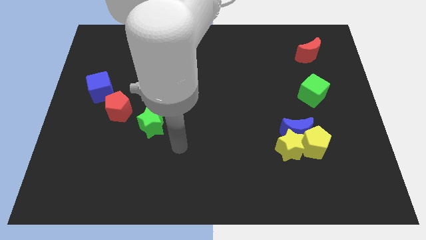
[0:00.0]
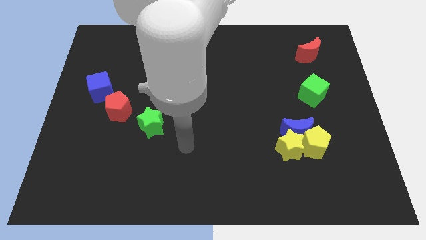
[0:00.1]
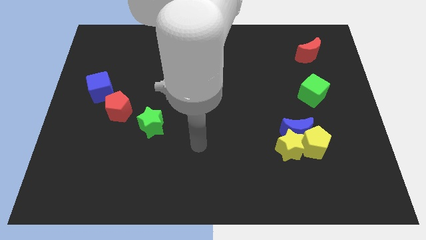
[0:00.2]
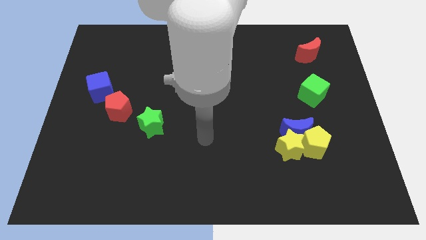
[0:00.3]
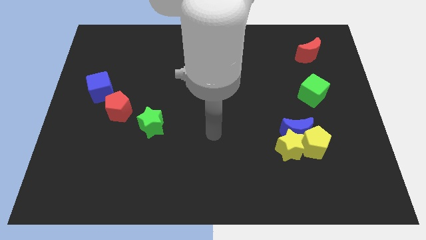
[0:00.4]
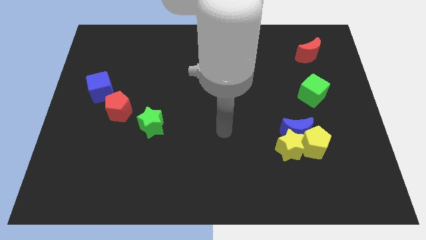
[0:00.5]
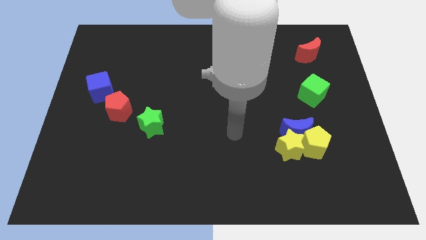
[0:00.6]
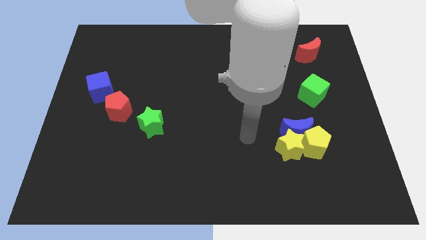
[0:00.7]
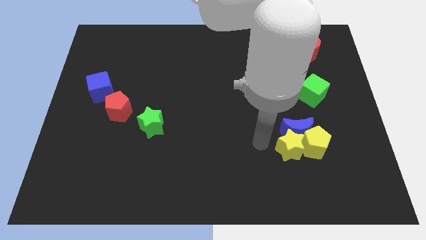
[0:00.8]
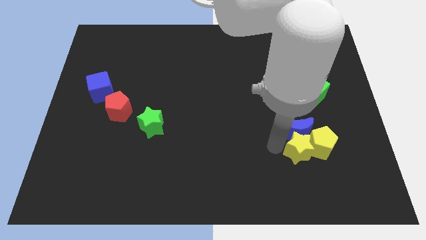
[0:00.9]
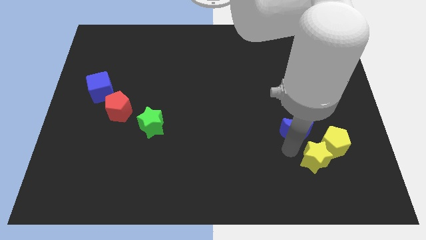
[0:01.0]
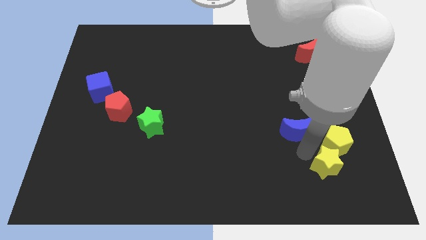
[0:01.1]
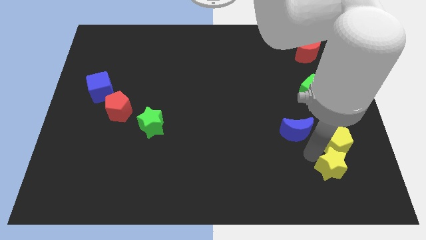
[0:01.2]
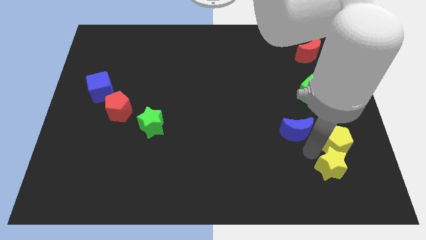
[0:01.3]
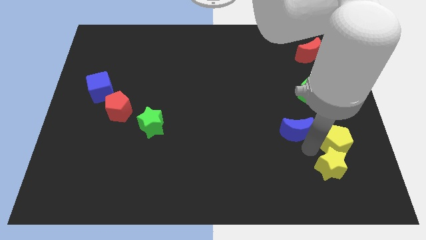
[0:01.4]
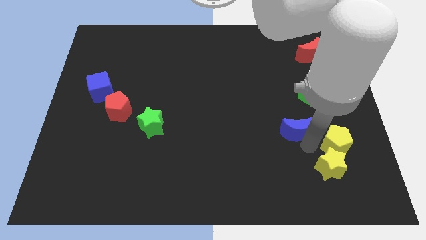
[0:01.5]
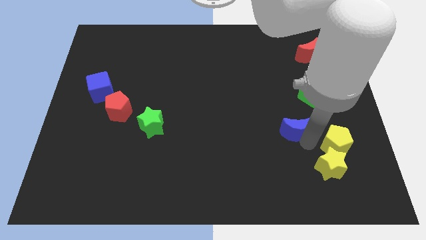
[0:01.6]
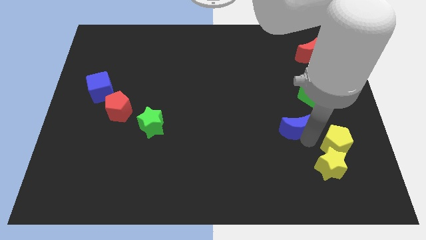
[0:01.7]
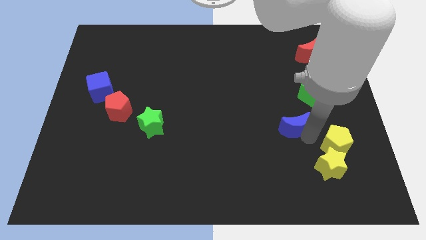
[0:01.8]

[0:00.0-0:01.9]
move the blue moon away from the yellow pentagon and yellow star

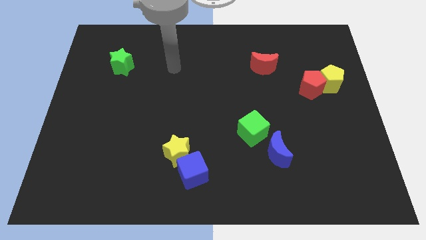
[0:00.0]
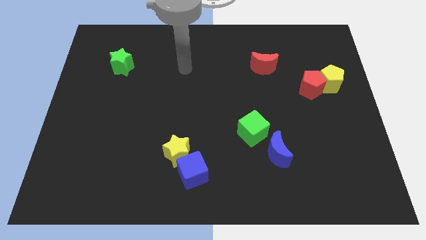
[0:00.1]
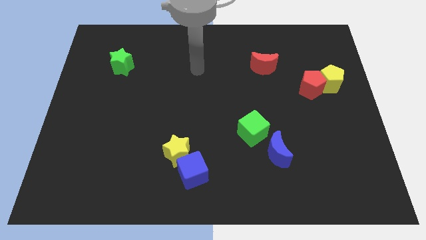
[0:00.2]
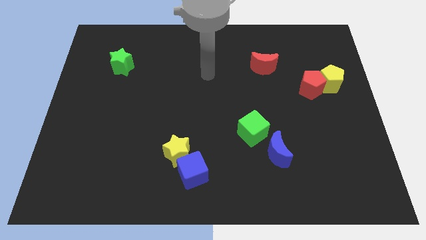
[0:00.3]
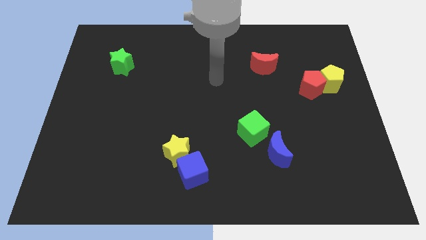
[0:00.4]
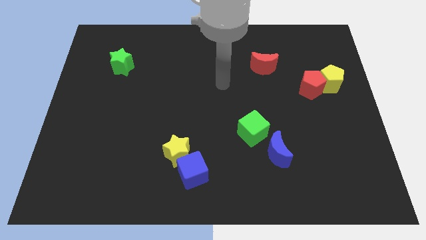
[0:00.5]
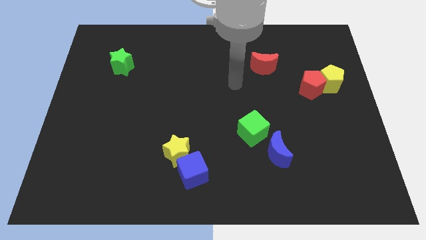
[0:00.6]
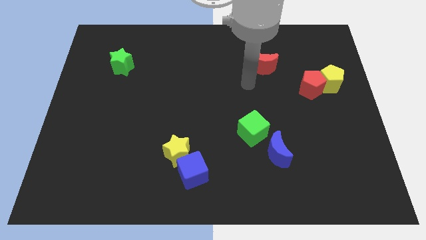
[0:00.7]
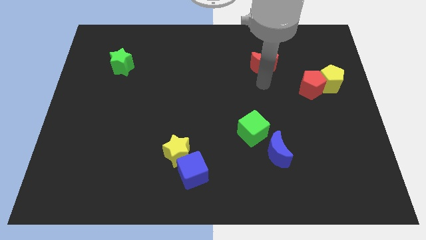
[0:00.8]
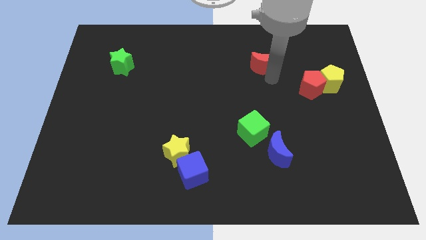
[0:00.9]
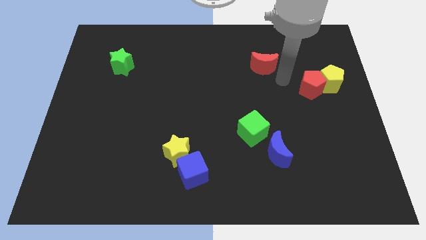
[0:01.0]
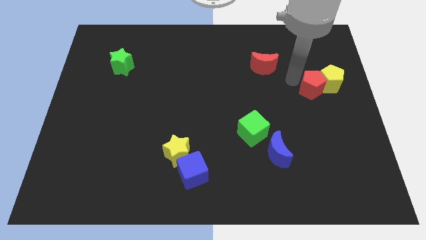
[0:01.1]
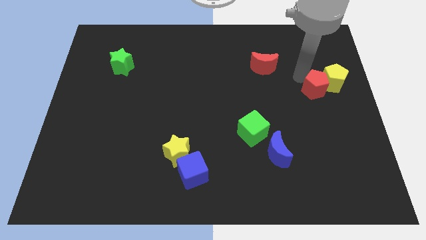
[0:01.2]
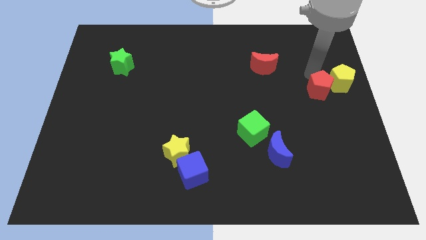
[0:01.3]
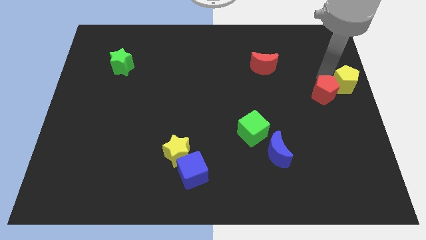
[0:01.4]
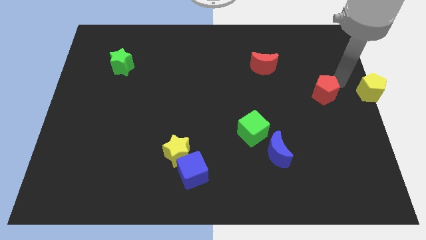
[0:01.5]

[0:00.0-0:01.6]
move the red pentagon away from the yellow pentagon

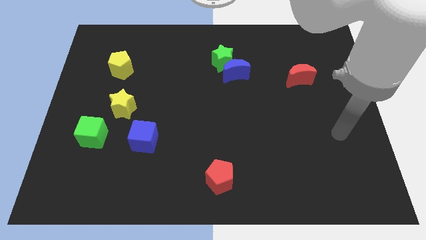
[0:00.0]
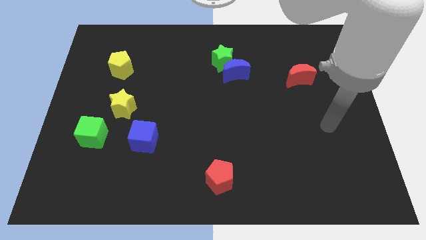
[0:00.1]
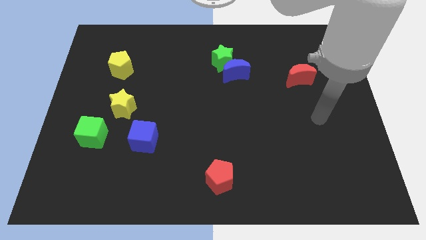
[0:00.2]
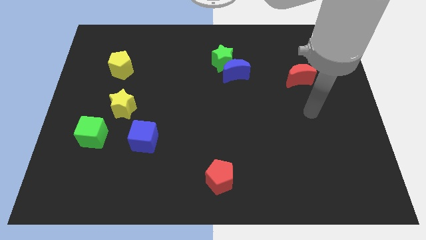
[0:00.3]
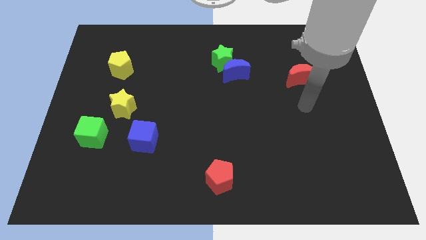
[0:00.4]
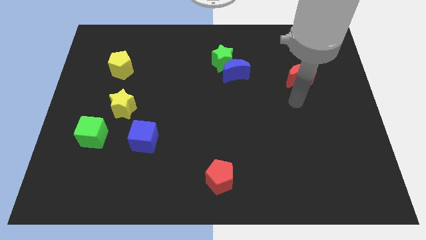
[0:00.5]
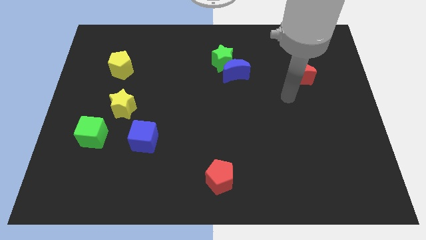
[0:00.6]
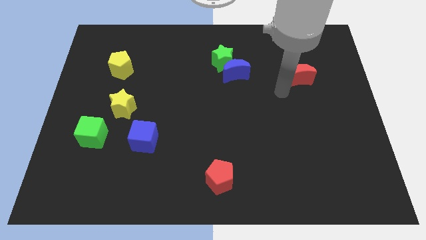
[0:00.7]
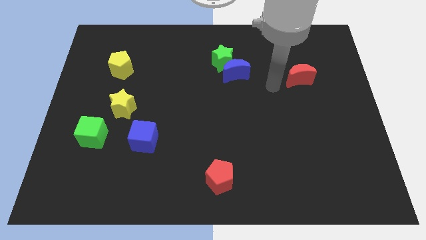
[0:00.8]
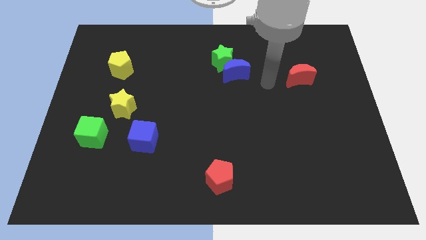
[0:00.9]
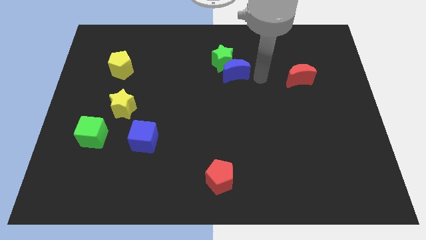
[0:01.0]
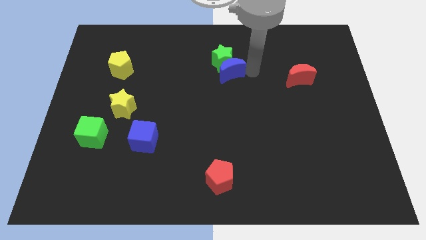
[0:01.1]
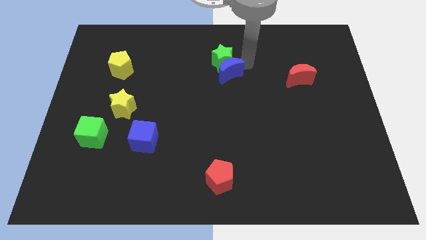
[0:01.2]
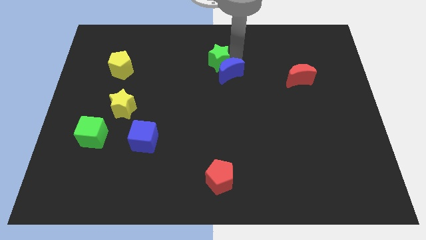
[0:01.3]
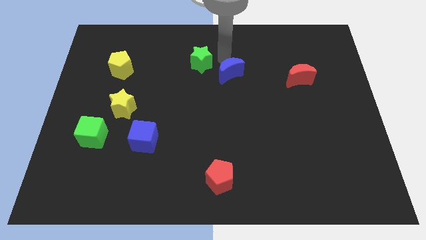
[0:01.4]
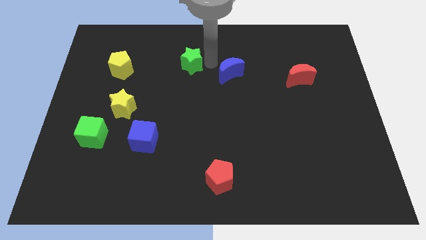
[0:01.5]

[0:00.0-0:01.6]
separate the blue moon from the green star

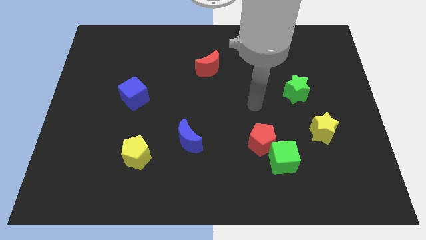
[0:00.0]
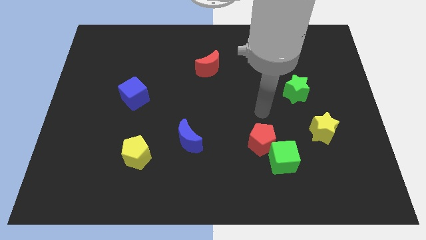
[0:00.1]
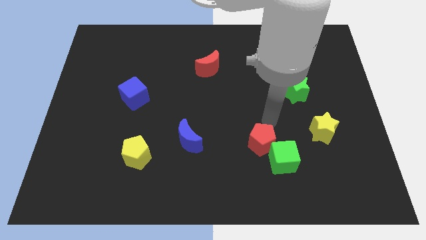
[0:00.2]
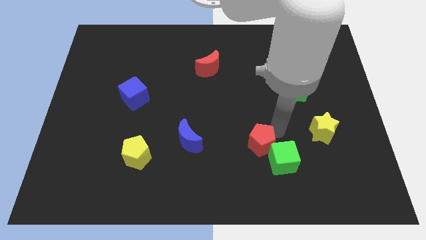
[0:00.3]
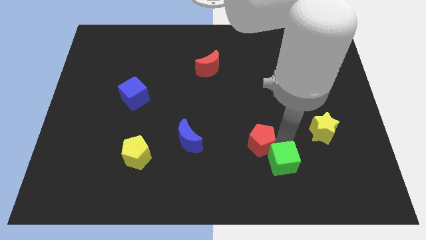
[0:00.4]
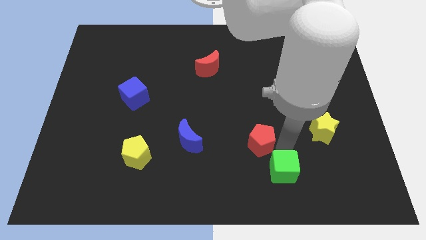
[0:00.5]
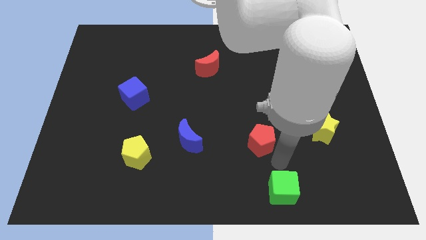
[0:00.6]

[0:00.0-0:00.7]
pull the red pentagon apart from the green cube

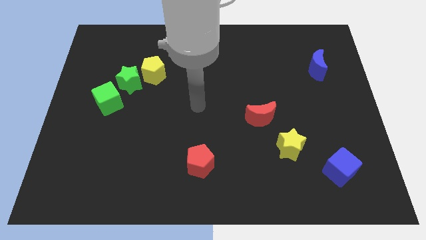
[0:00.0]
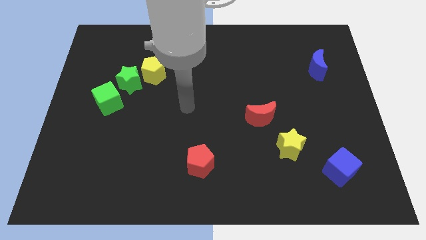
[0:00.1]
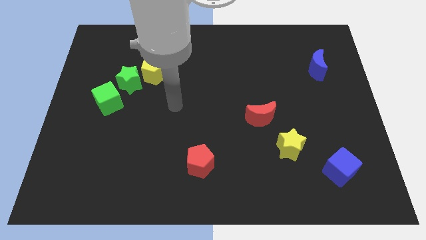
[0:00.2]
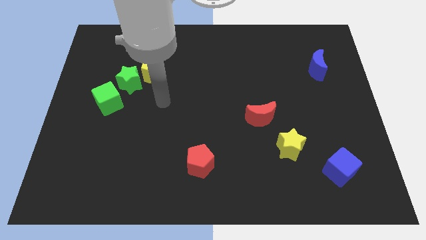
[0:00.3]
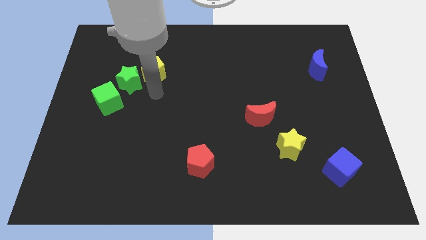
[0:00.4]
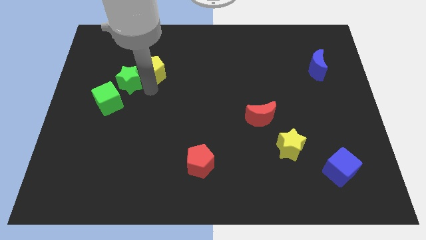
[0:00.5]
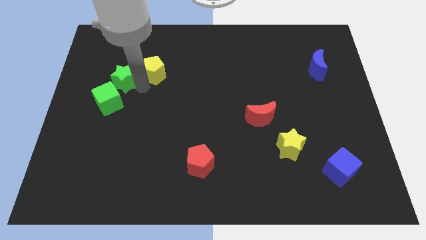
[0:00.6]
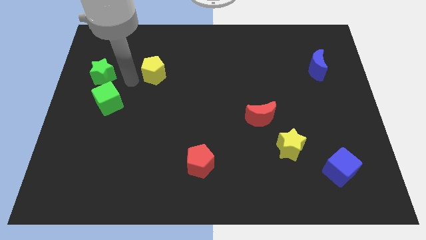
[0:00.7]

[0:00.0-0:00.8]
move the yellow pentagon away from the green star

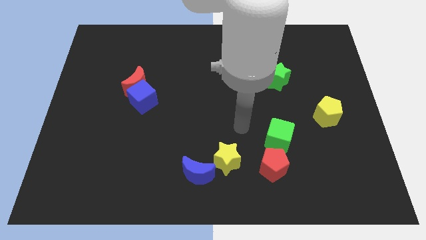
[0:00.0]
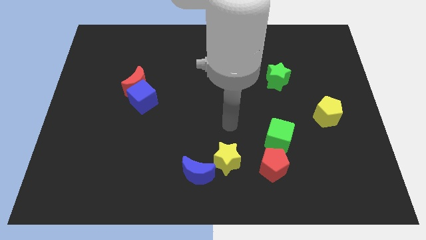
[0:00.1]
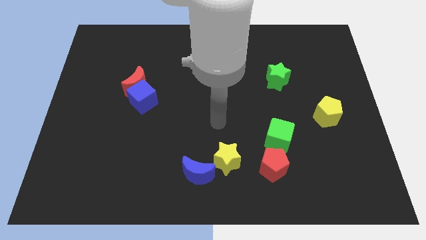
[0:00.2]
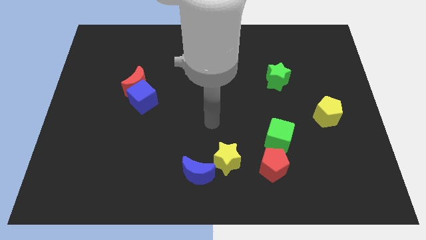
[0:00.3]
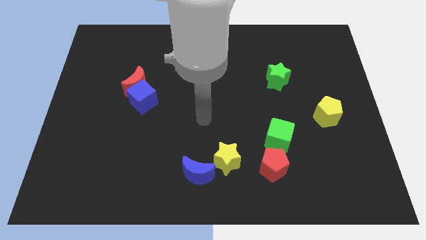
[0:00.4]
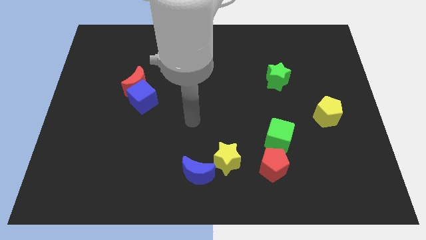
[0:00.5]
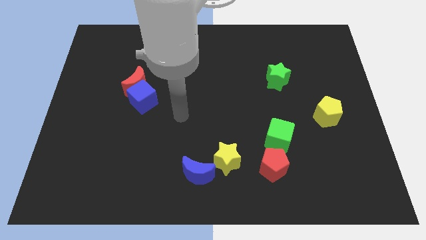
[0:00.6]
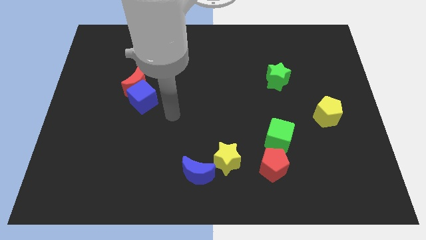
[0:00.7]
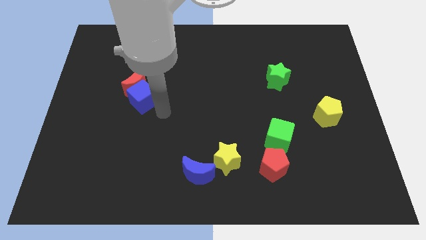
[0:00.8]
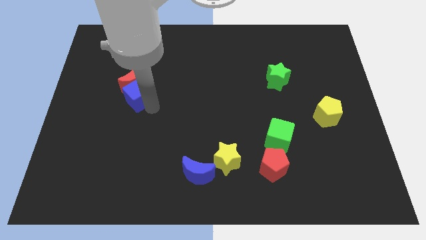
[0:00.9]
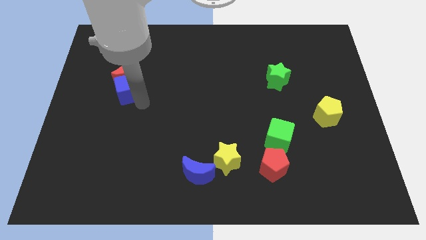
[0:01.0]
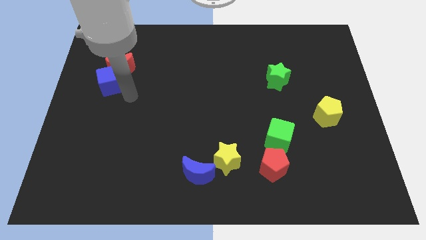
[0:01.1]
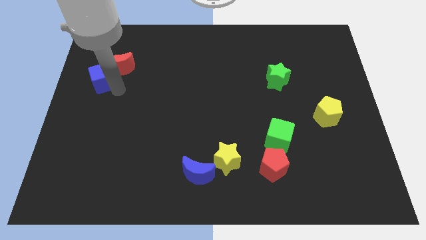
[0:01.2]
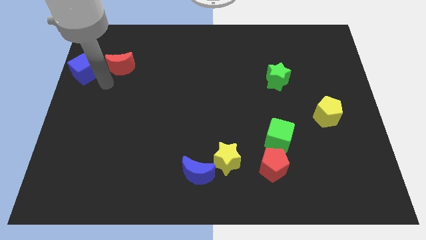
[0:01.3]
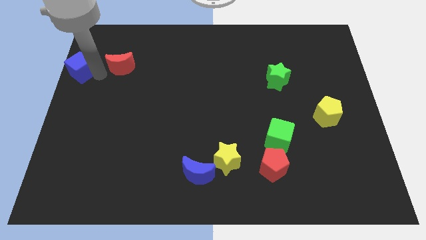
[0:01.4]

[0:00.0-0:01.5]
separate the red moon from the blue cube

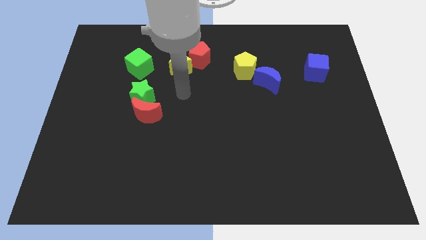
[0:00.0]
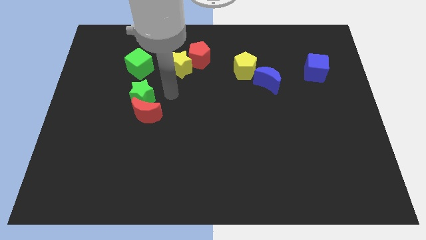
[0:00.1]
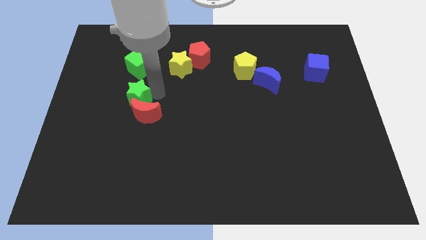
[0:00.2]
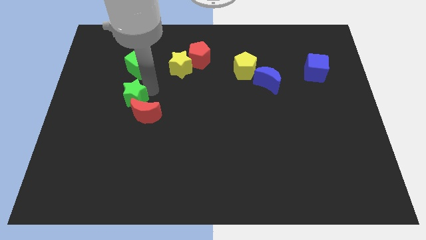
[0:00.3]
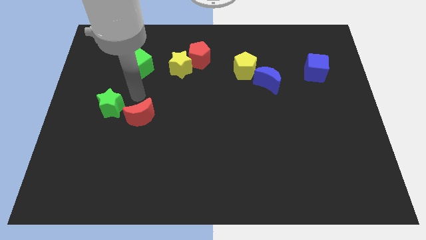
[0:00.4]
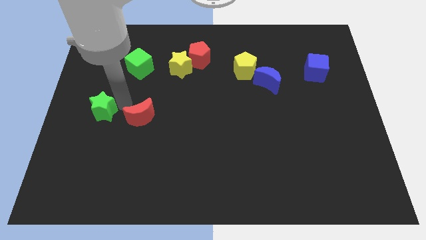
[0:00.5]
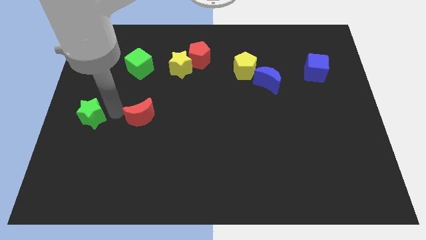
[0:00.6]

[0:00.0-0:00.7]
move the red moon away from the green star

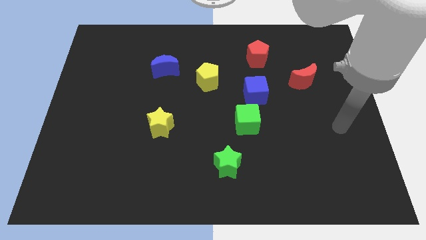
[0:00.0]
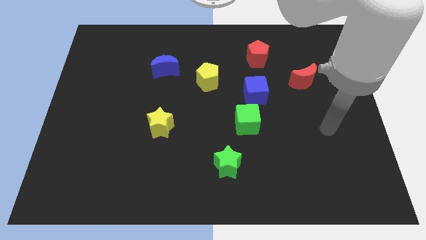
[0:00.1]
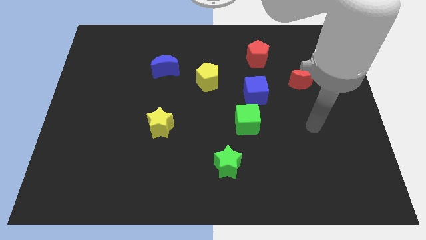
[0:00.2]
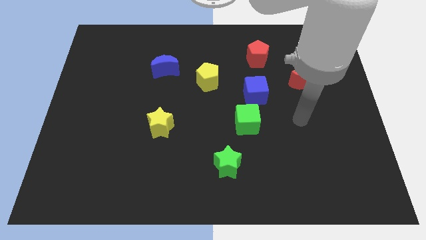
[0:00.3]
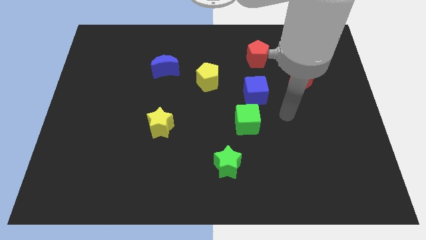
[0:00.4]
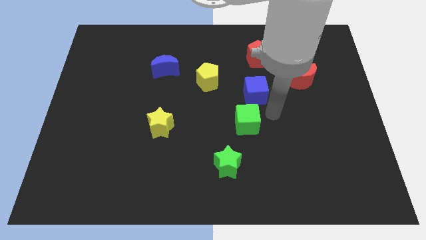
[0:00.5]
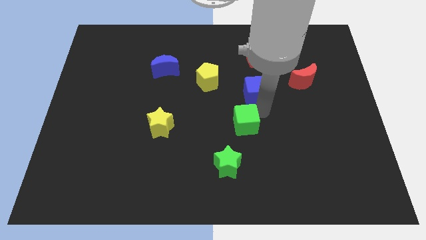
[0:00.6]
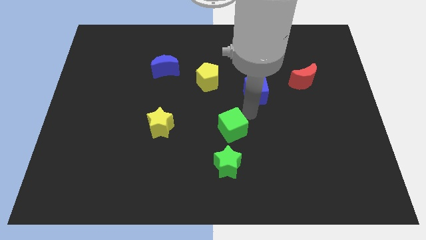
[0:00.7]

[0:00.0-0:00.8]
pull the blue cube apart from the green cube
